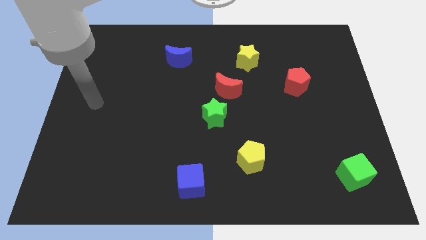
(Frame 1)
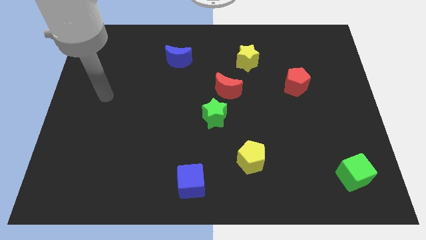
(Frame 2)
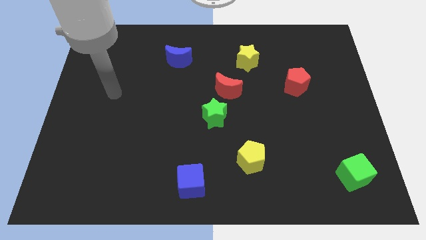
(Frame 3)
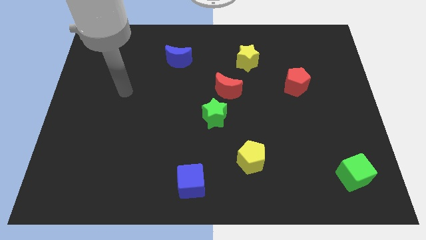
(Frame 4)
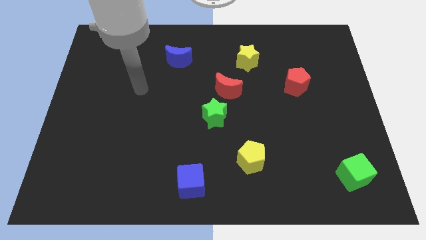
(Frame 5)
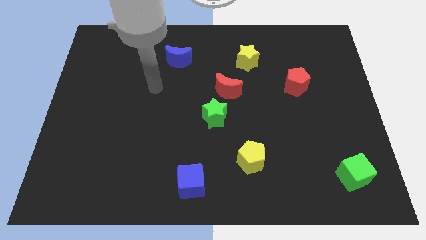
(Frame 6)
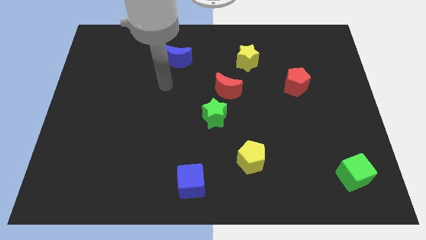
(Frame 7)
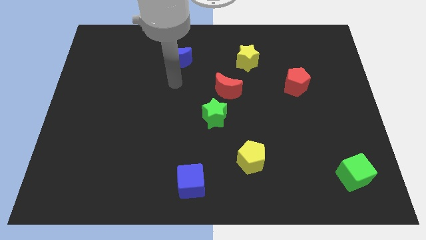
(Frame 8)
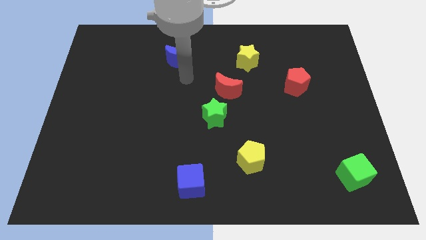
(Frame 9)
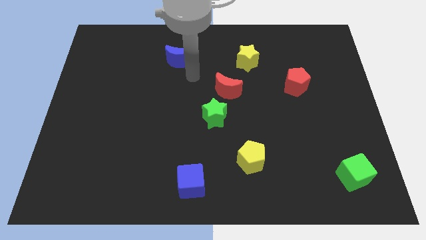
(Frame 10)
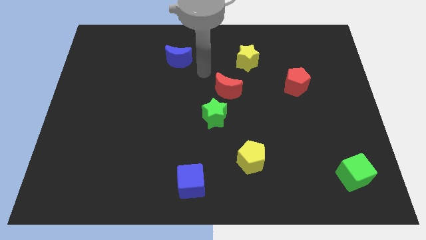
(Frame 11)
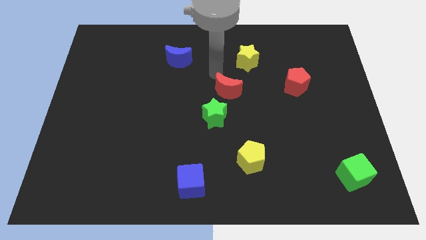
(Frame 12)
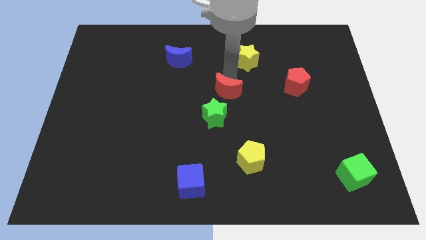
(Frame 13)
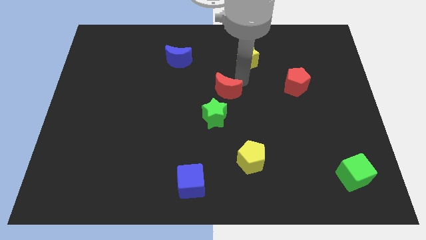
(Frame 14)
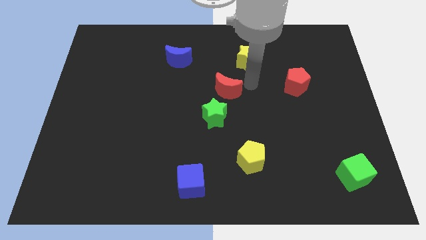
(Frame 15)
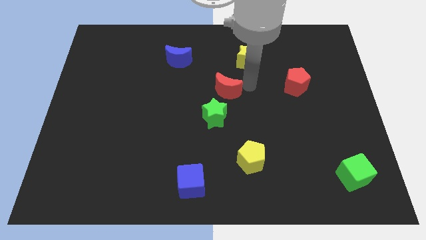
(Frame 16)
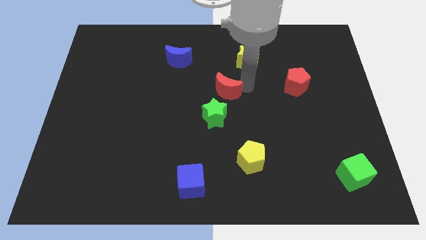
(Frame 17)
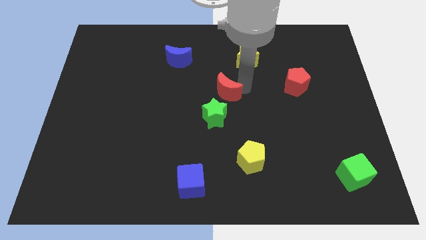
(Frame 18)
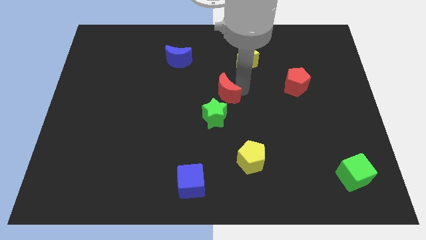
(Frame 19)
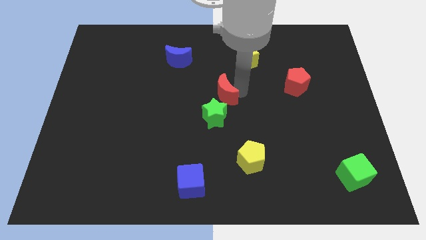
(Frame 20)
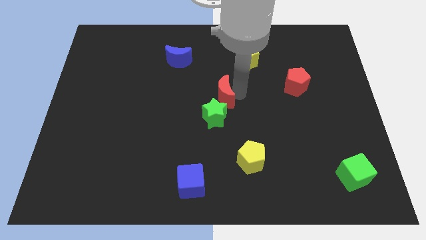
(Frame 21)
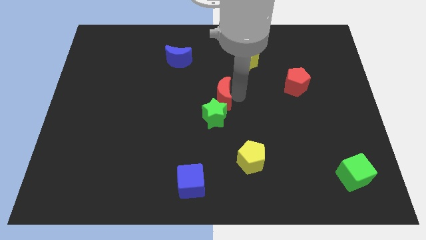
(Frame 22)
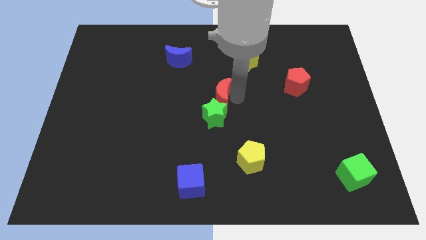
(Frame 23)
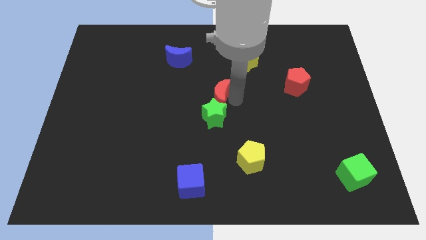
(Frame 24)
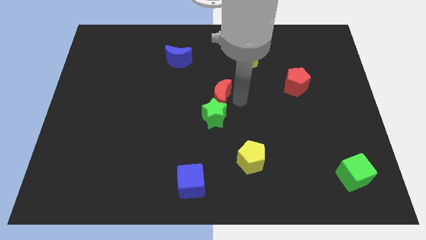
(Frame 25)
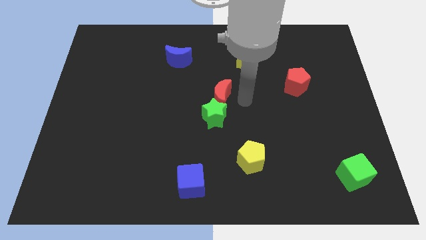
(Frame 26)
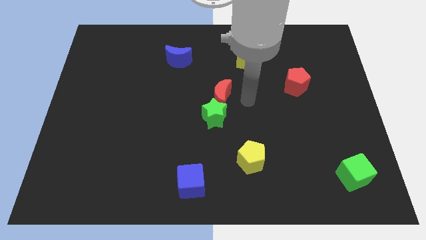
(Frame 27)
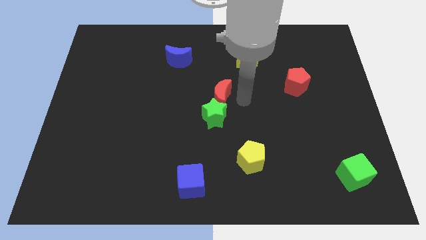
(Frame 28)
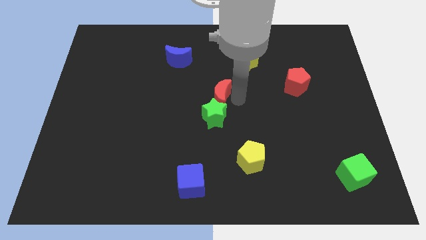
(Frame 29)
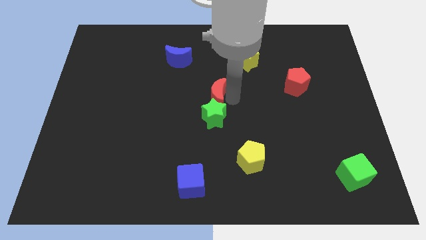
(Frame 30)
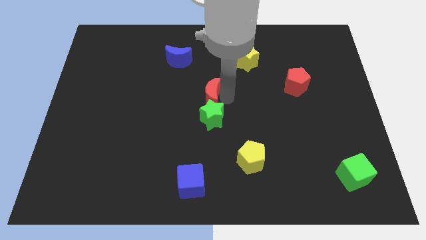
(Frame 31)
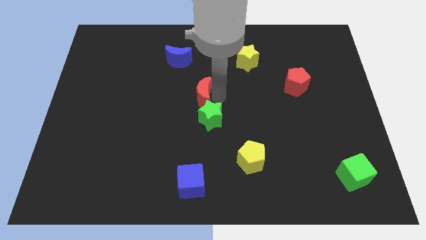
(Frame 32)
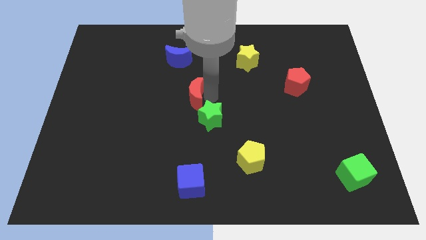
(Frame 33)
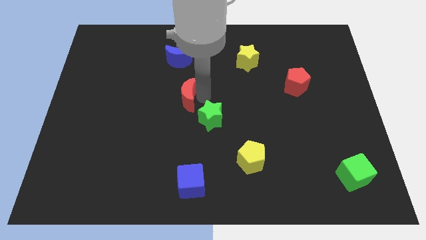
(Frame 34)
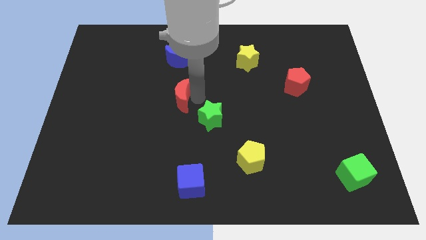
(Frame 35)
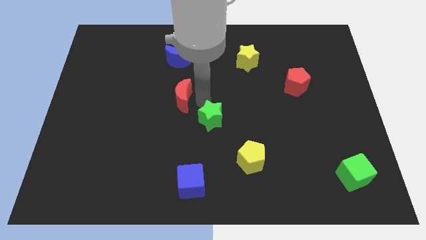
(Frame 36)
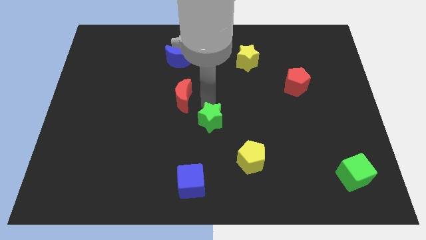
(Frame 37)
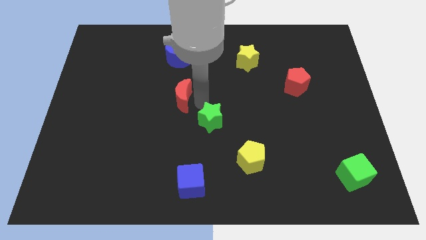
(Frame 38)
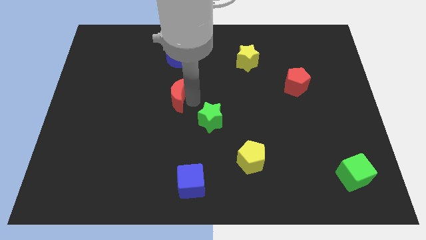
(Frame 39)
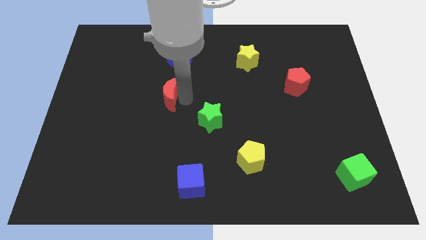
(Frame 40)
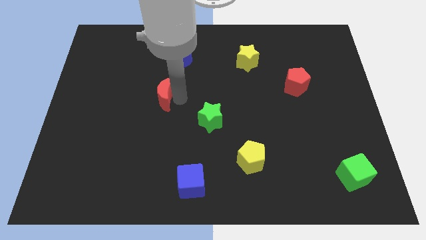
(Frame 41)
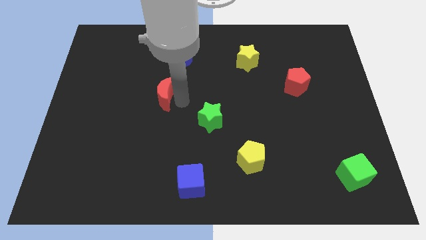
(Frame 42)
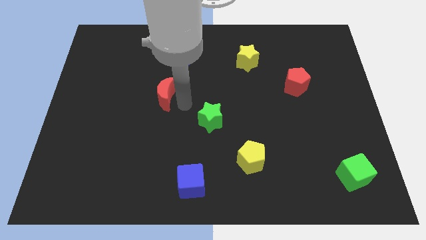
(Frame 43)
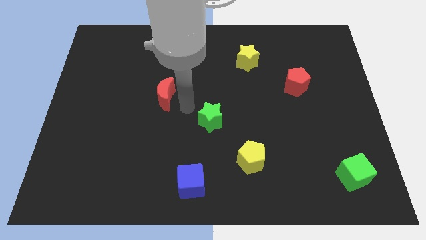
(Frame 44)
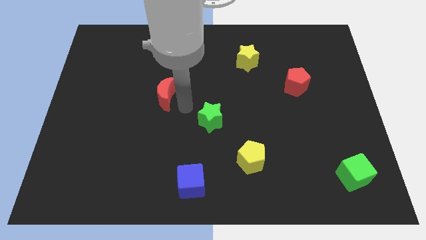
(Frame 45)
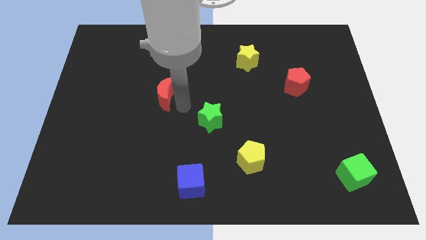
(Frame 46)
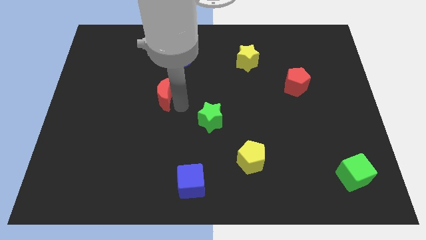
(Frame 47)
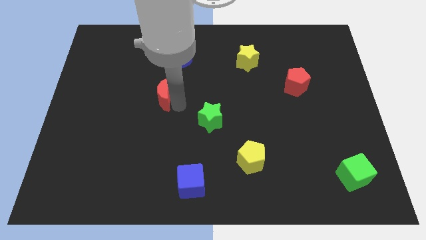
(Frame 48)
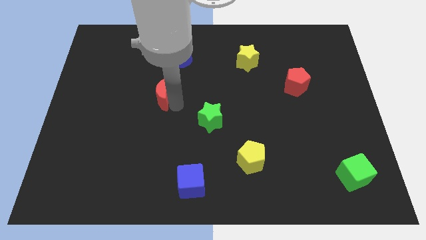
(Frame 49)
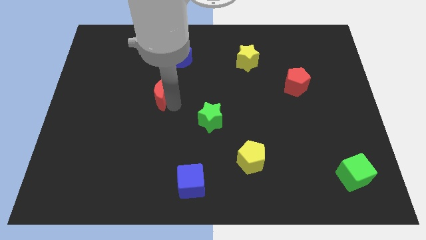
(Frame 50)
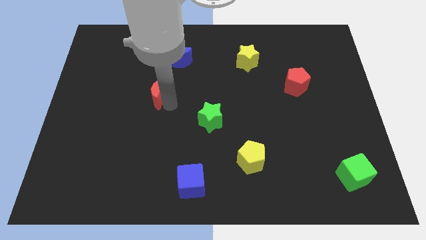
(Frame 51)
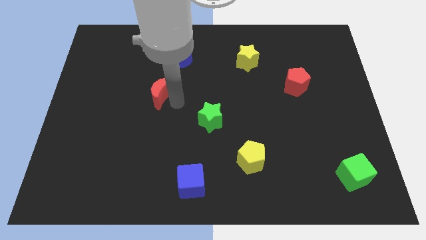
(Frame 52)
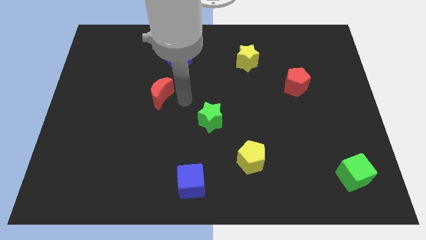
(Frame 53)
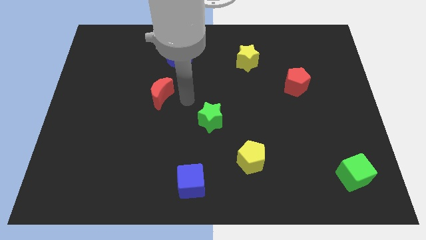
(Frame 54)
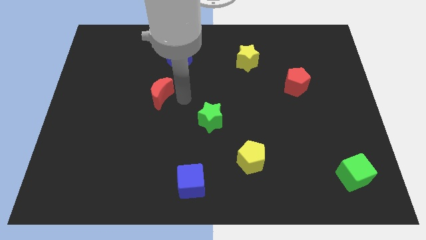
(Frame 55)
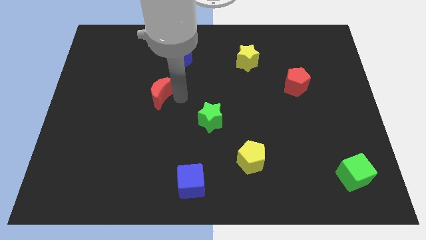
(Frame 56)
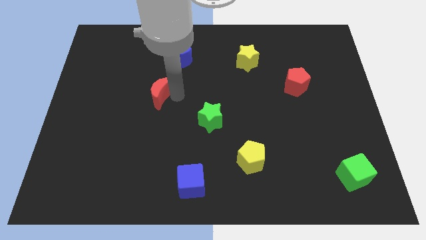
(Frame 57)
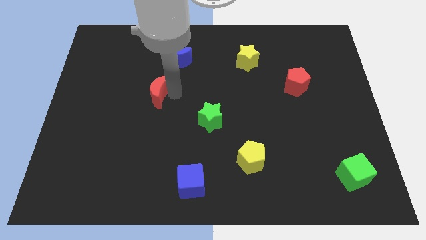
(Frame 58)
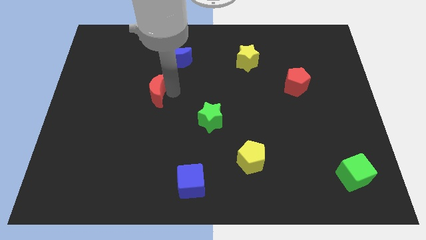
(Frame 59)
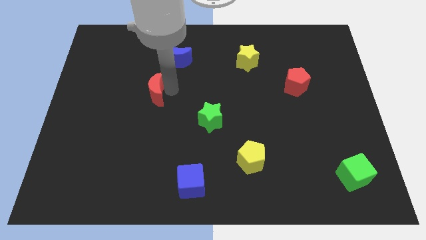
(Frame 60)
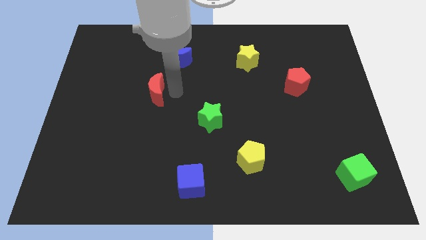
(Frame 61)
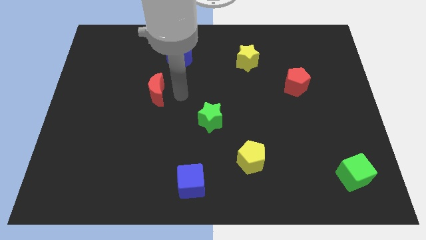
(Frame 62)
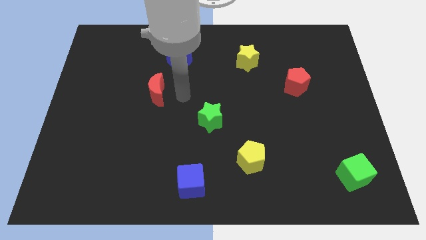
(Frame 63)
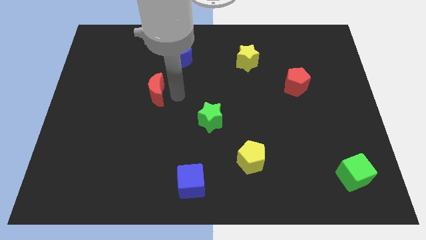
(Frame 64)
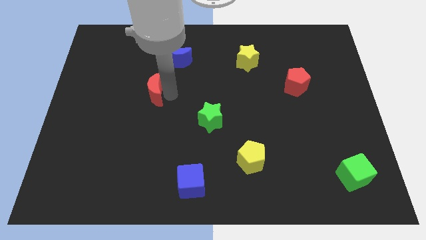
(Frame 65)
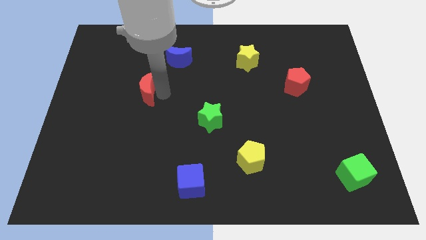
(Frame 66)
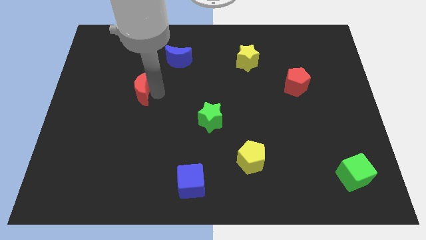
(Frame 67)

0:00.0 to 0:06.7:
slide the red moon to the left

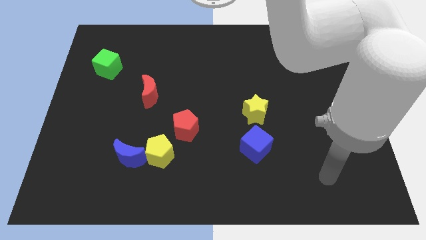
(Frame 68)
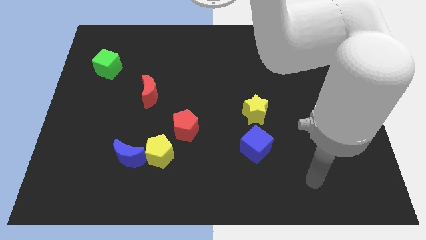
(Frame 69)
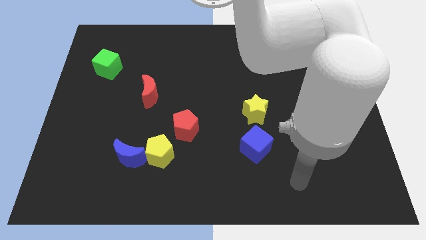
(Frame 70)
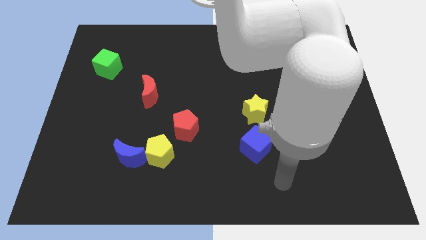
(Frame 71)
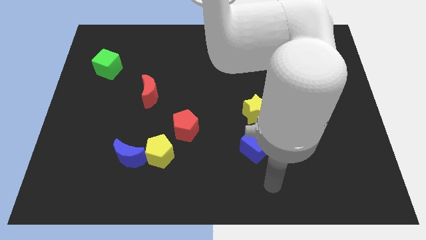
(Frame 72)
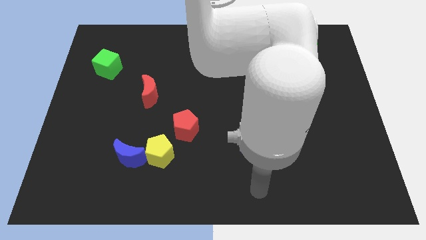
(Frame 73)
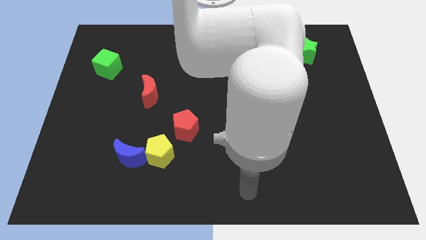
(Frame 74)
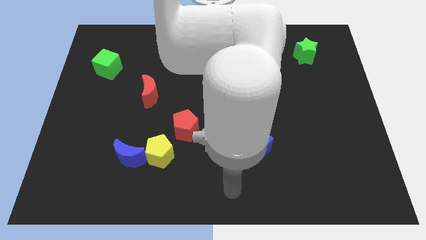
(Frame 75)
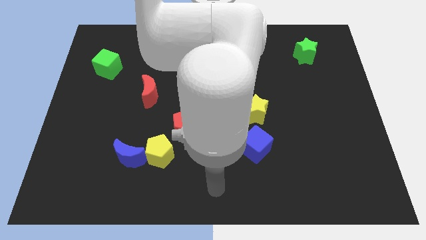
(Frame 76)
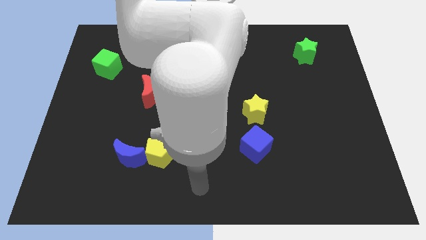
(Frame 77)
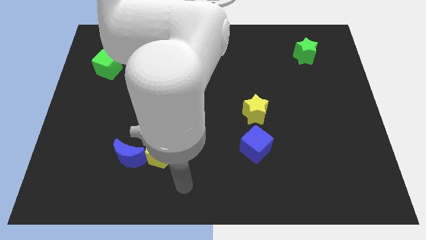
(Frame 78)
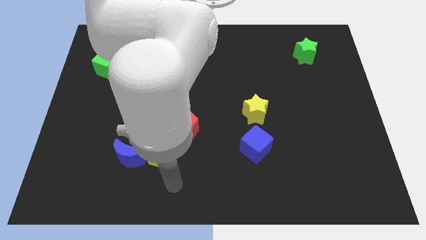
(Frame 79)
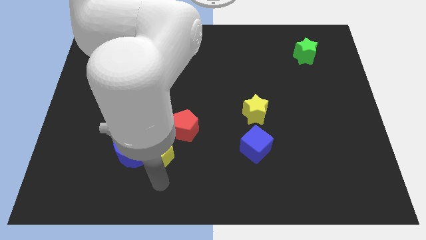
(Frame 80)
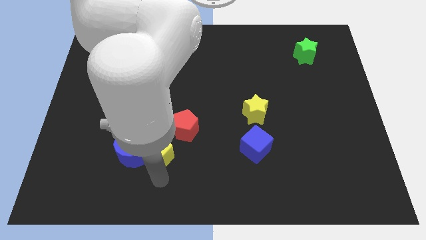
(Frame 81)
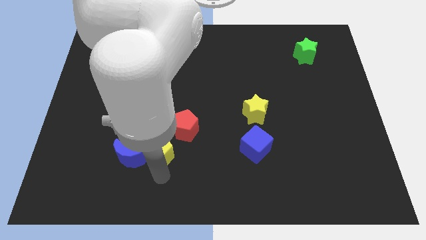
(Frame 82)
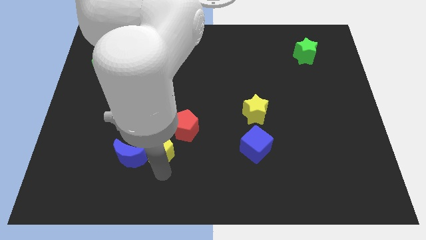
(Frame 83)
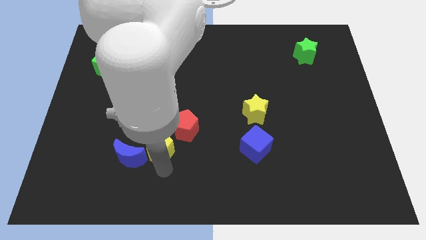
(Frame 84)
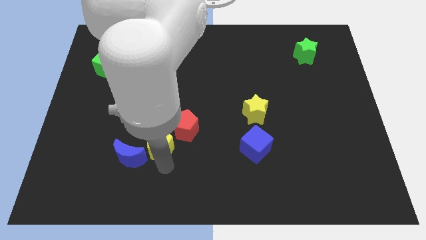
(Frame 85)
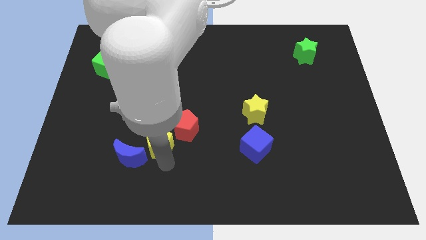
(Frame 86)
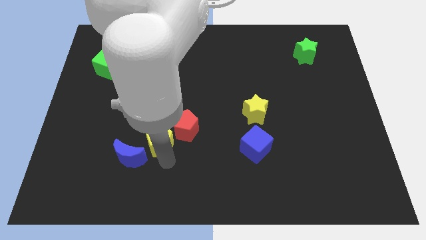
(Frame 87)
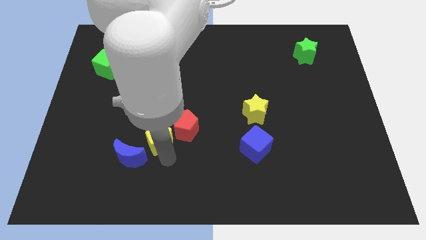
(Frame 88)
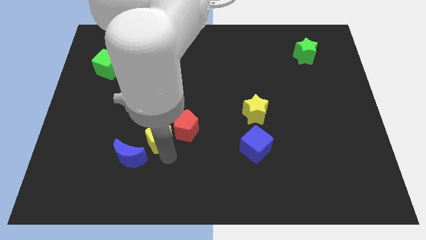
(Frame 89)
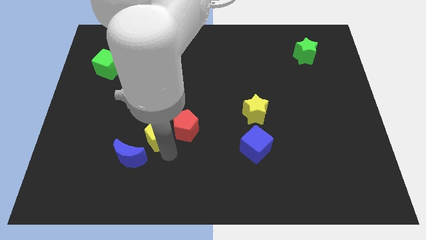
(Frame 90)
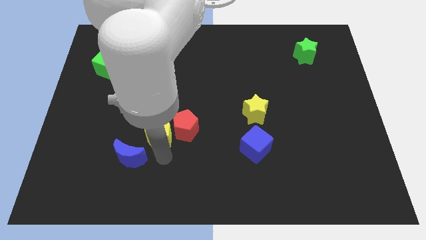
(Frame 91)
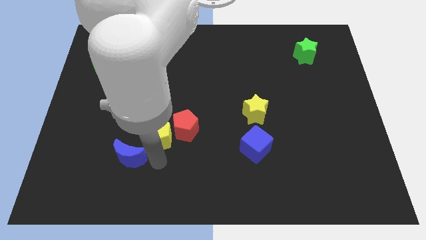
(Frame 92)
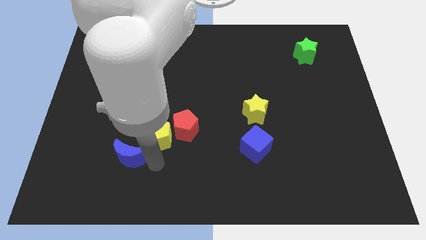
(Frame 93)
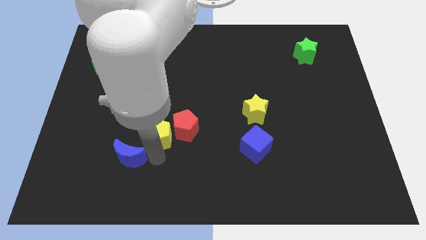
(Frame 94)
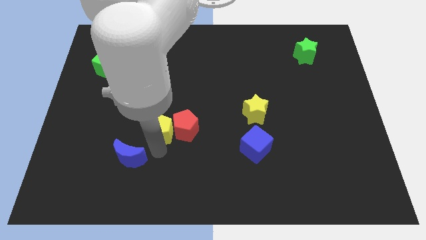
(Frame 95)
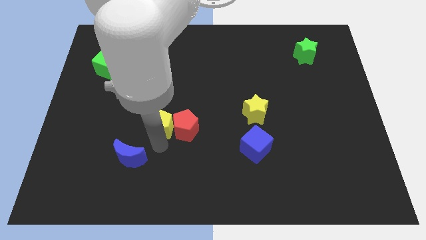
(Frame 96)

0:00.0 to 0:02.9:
slightly slide the yellow pentagon up
